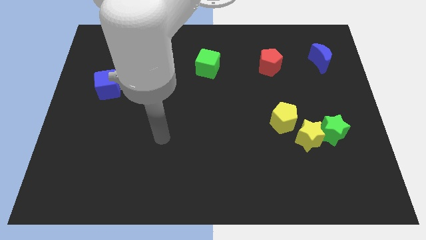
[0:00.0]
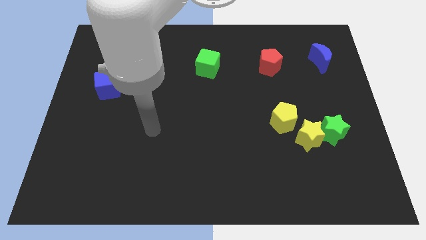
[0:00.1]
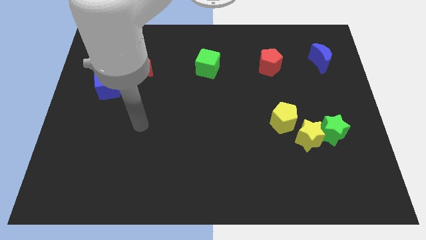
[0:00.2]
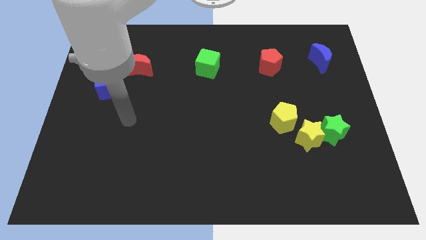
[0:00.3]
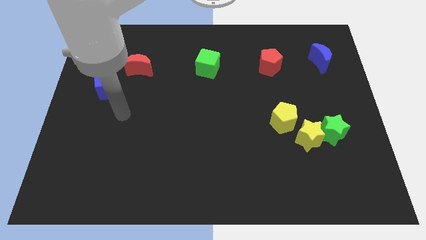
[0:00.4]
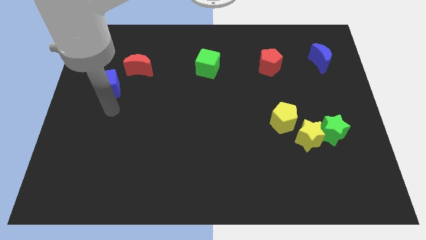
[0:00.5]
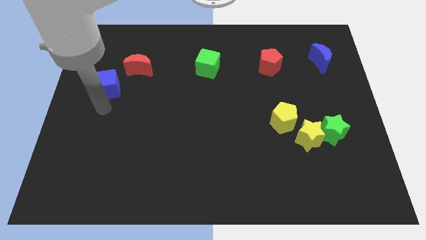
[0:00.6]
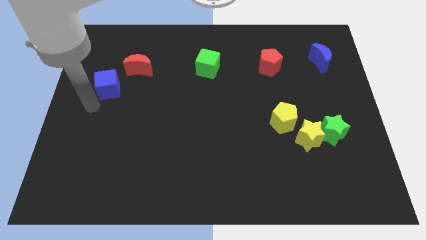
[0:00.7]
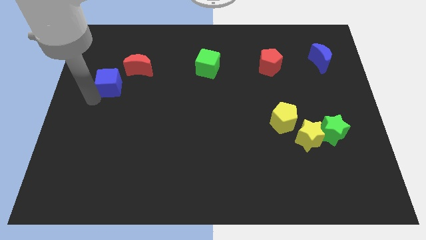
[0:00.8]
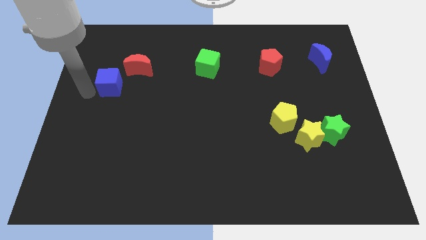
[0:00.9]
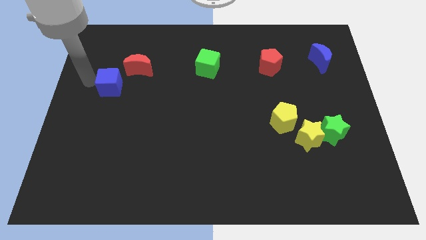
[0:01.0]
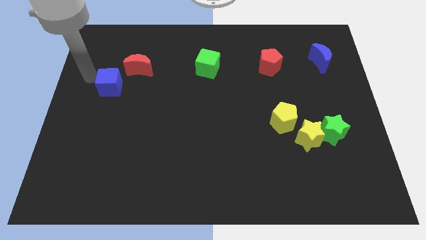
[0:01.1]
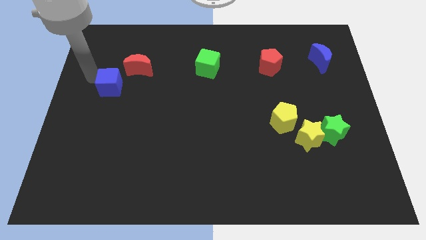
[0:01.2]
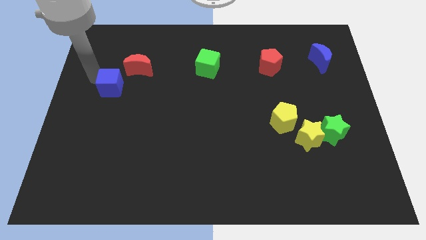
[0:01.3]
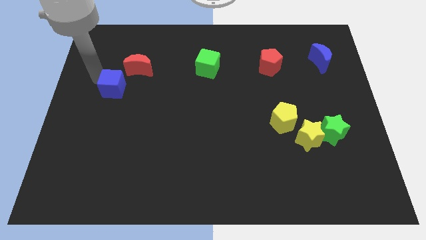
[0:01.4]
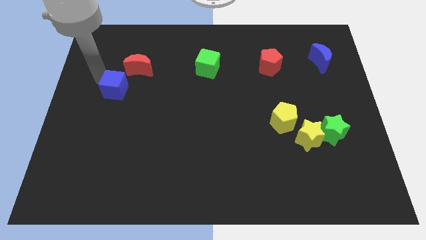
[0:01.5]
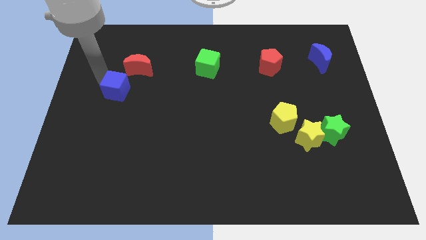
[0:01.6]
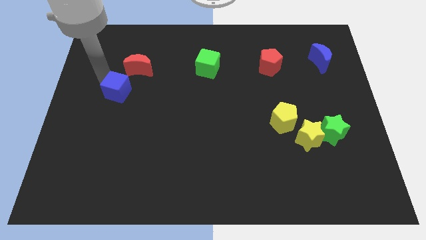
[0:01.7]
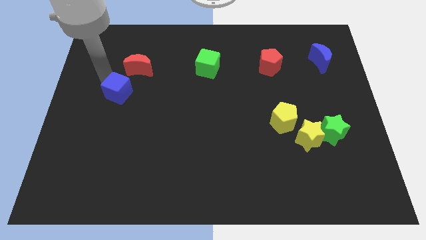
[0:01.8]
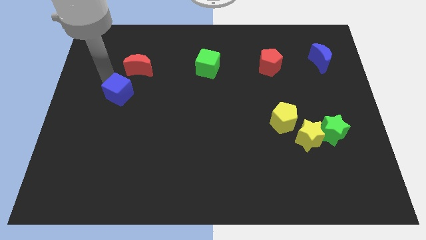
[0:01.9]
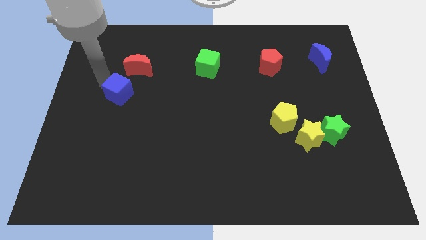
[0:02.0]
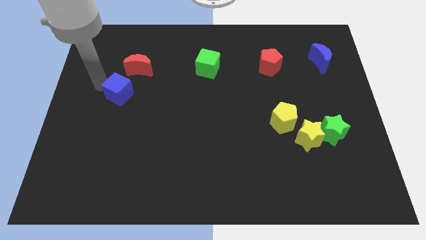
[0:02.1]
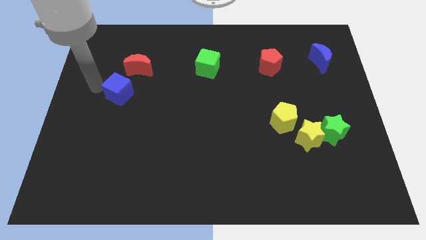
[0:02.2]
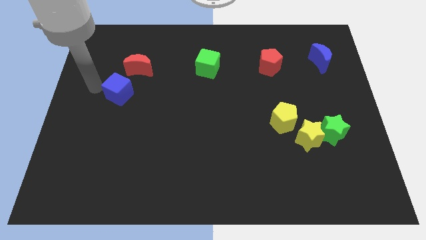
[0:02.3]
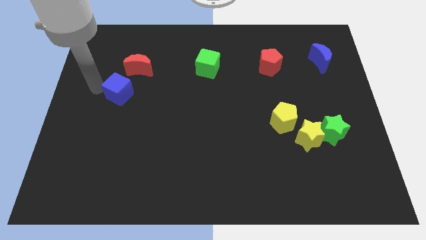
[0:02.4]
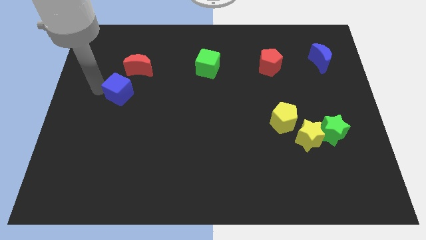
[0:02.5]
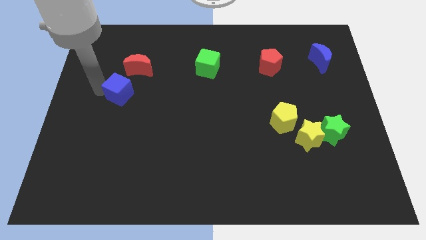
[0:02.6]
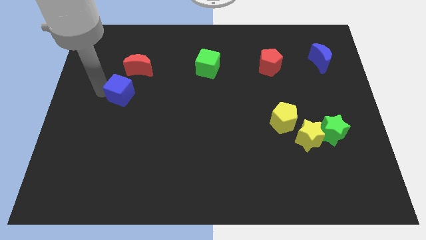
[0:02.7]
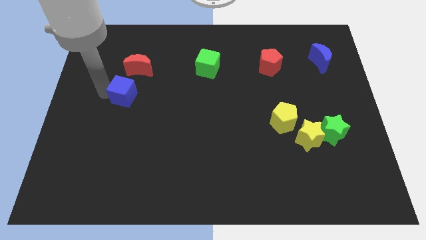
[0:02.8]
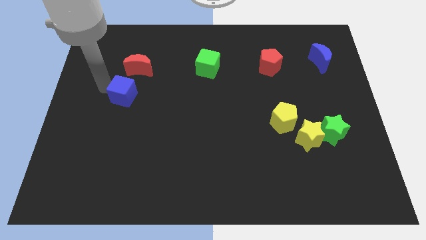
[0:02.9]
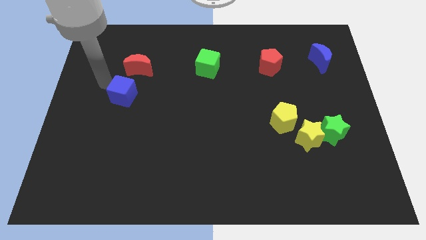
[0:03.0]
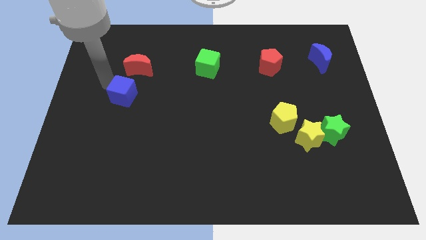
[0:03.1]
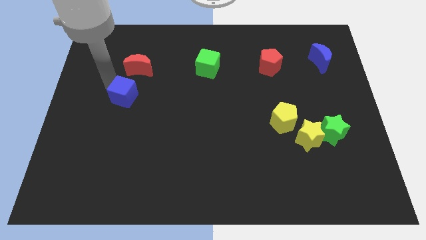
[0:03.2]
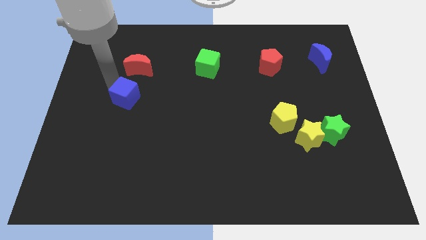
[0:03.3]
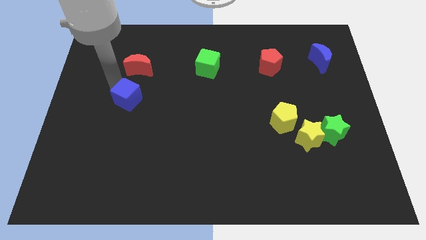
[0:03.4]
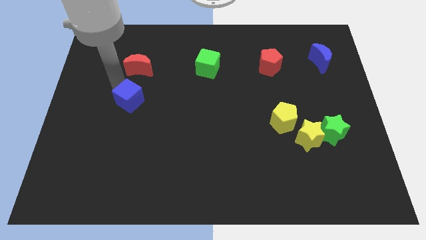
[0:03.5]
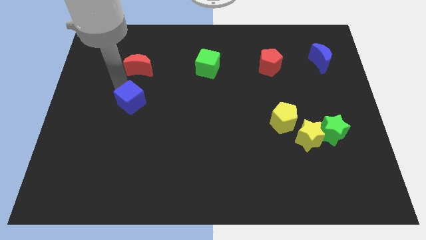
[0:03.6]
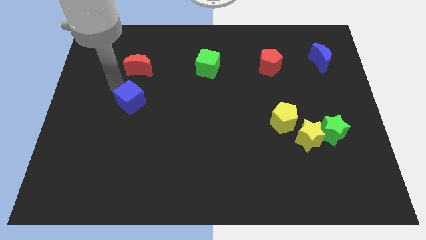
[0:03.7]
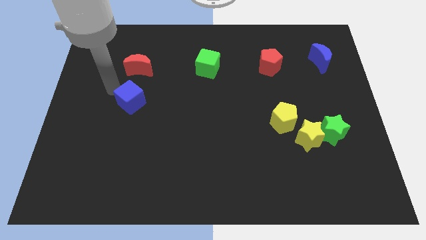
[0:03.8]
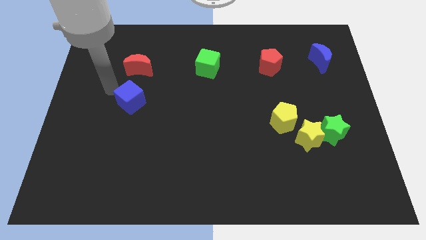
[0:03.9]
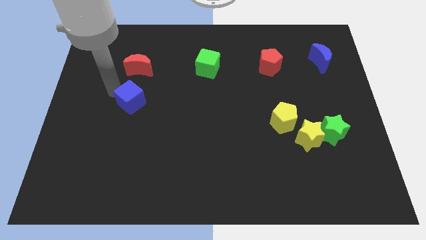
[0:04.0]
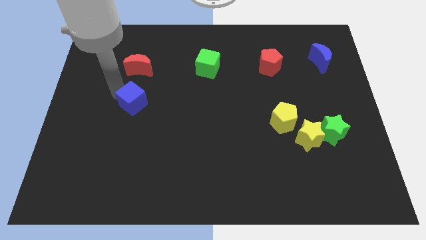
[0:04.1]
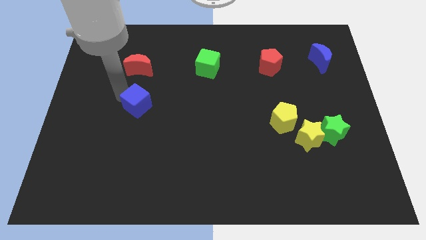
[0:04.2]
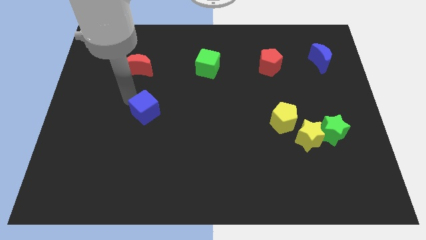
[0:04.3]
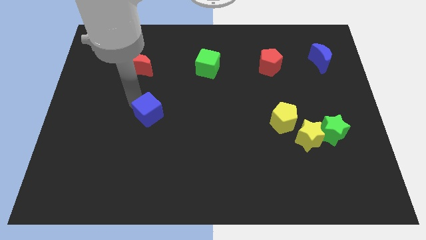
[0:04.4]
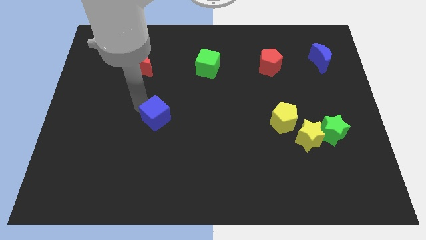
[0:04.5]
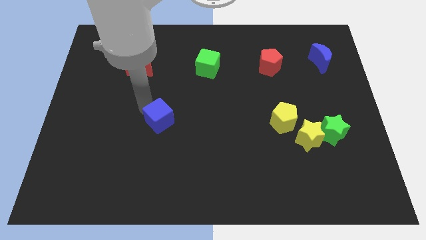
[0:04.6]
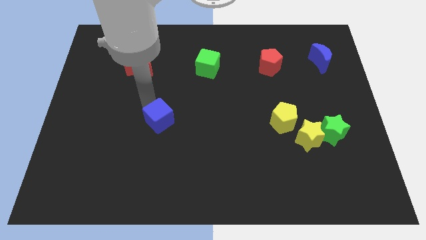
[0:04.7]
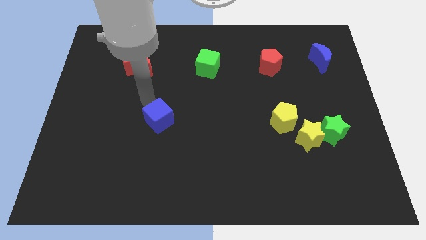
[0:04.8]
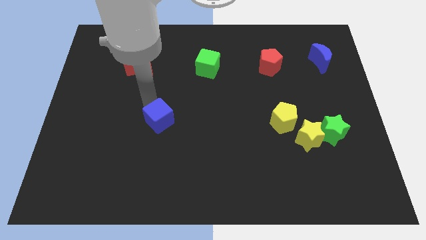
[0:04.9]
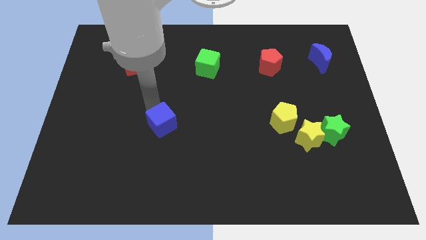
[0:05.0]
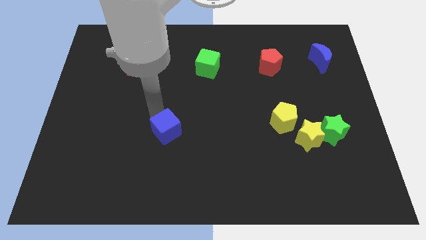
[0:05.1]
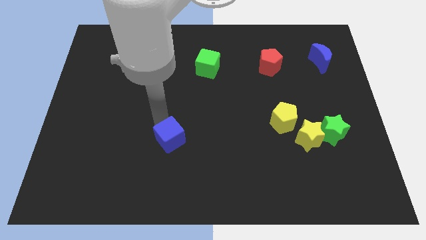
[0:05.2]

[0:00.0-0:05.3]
slide the blue cube down and to the right diagonally

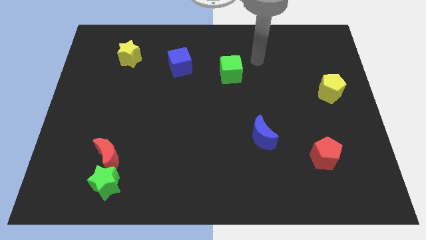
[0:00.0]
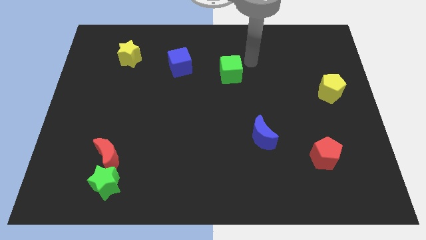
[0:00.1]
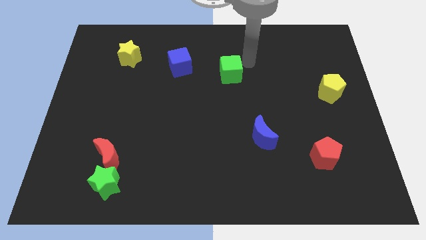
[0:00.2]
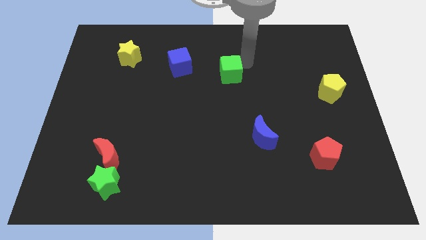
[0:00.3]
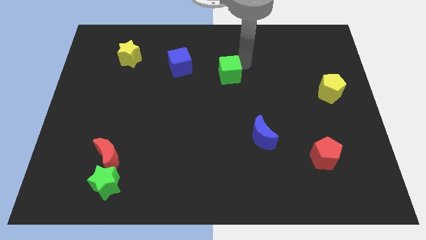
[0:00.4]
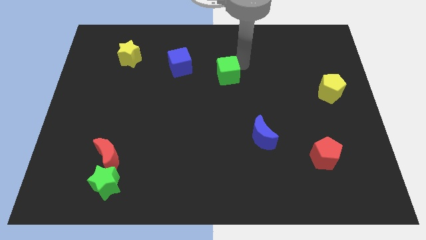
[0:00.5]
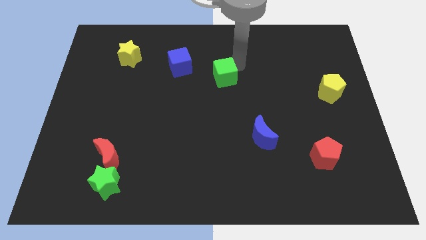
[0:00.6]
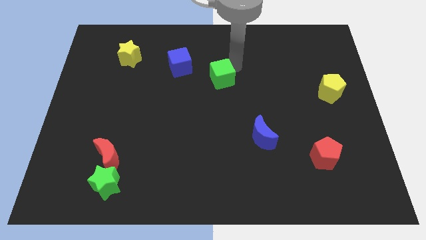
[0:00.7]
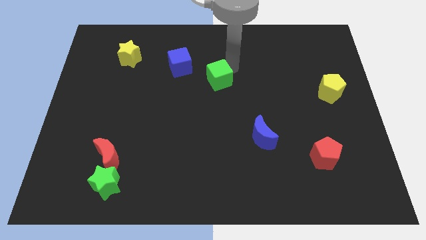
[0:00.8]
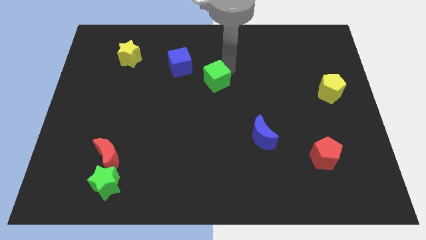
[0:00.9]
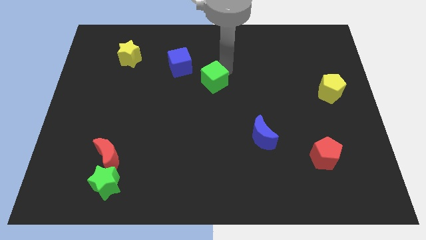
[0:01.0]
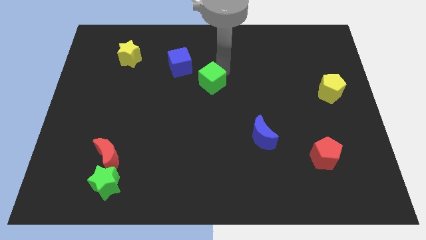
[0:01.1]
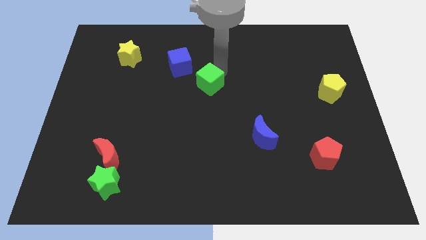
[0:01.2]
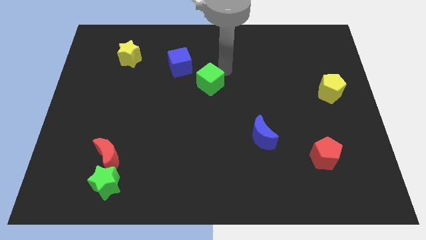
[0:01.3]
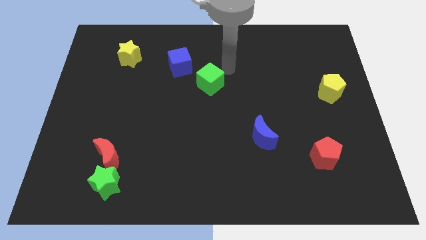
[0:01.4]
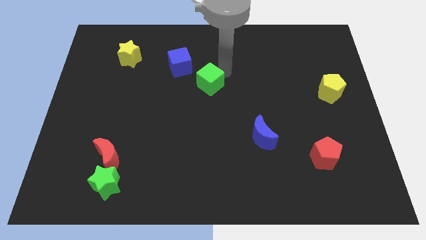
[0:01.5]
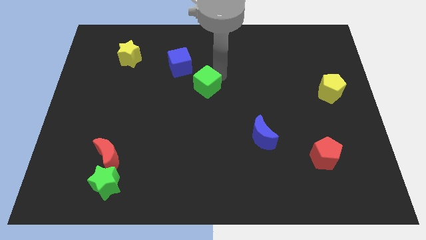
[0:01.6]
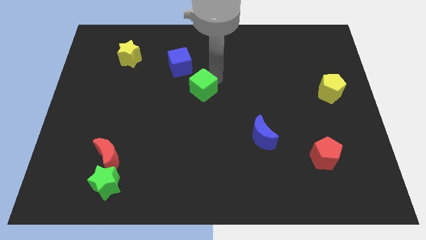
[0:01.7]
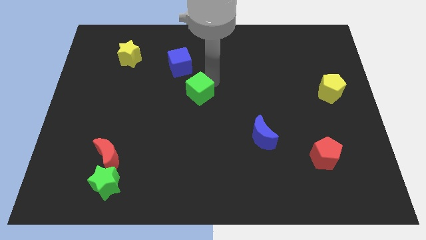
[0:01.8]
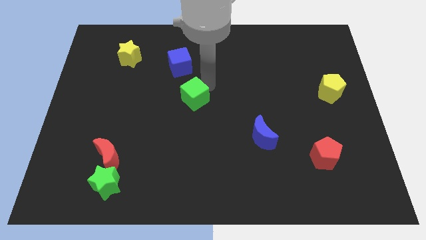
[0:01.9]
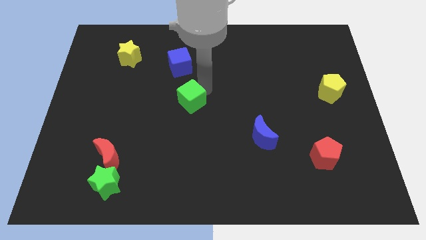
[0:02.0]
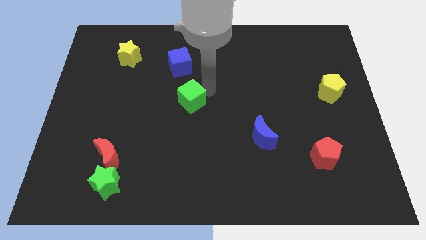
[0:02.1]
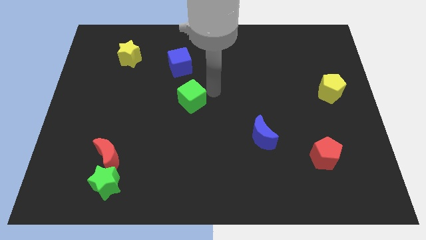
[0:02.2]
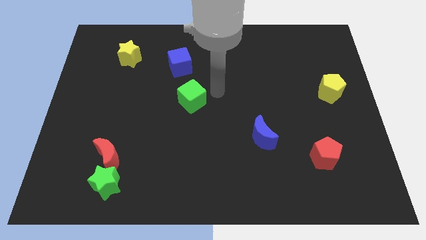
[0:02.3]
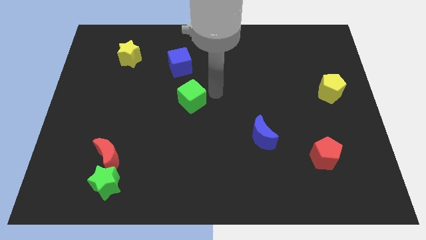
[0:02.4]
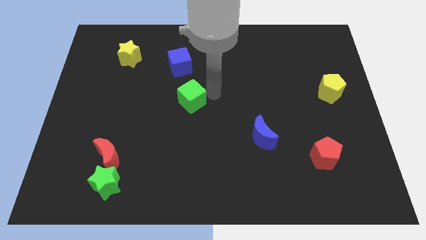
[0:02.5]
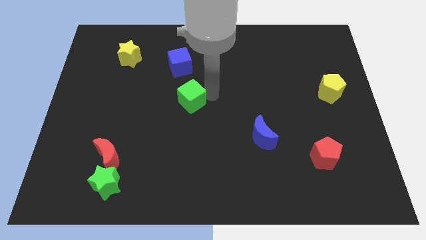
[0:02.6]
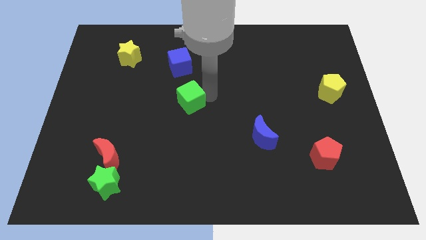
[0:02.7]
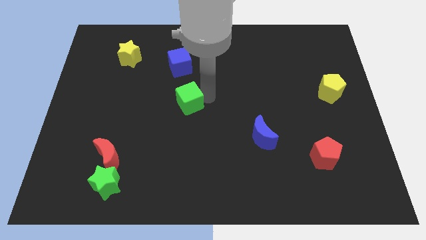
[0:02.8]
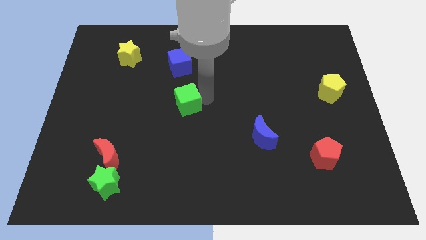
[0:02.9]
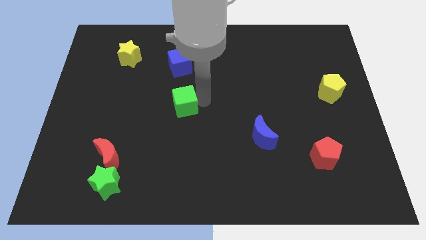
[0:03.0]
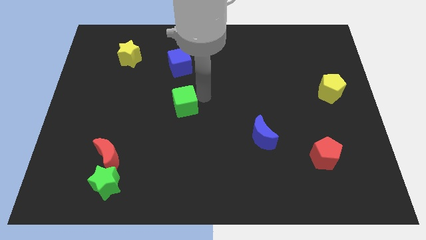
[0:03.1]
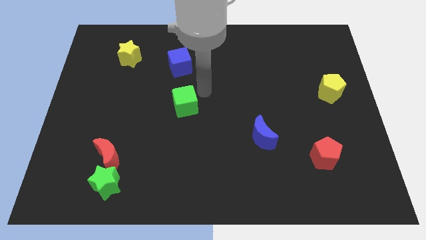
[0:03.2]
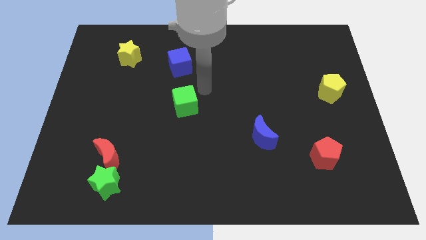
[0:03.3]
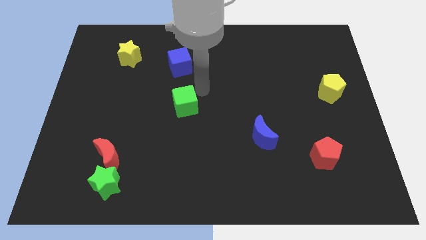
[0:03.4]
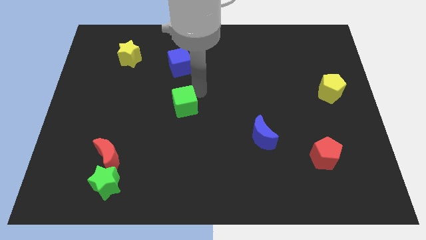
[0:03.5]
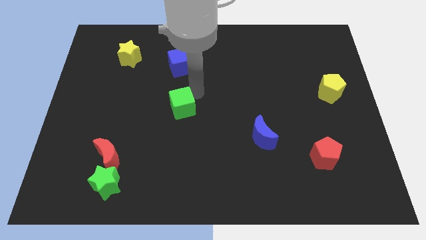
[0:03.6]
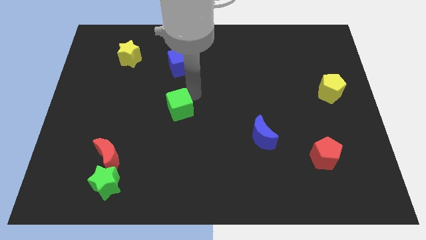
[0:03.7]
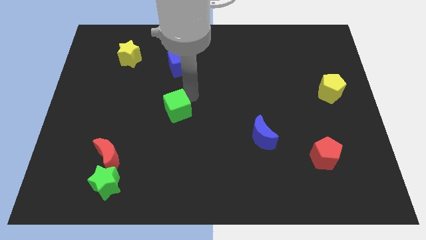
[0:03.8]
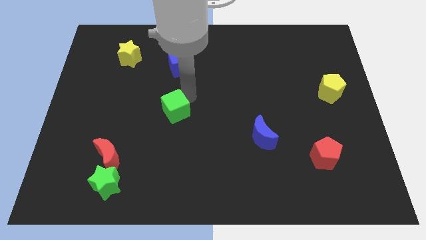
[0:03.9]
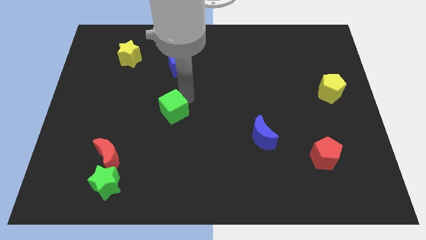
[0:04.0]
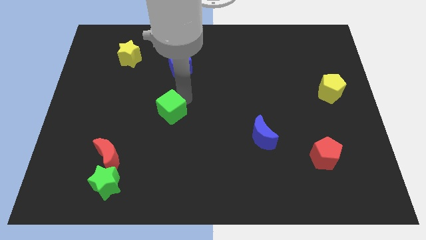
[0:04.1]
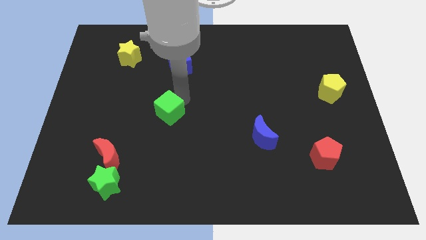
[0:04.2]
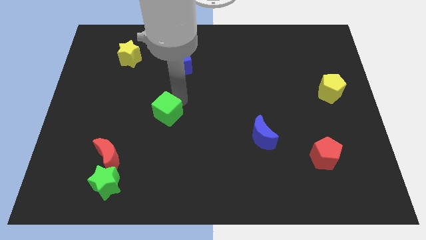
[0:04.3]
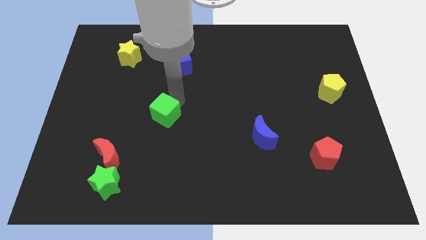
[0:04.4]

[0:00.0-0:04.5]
slide the green cube down and left diagonally
